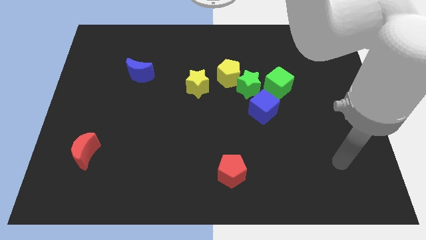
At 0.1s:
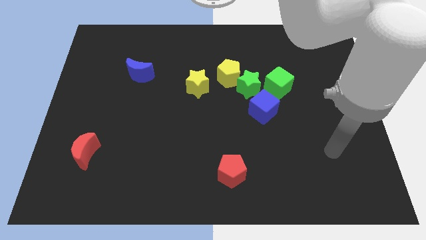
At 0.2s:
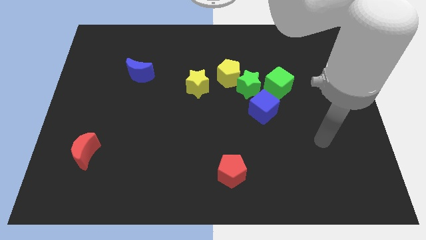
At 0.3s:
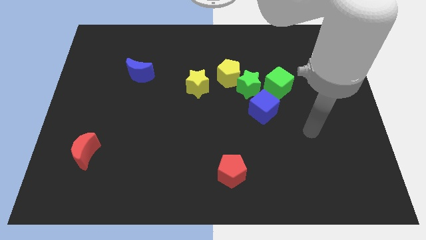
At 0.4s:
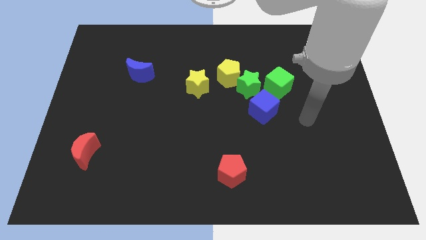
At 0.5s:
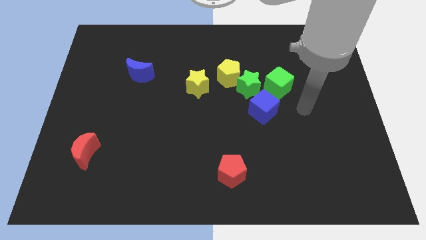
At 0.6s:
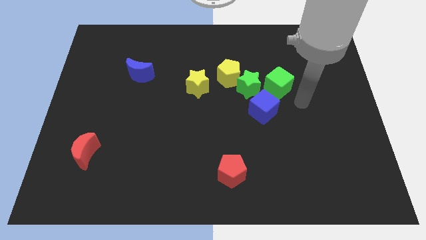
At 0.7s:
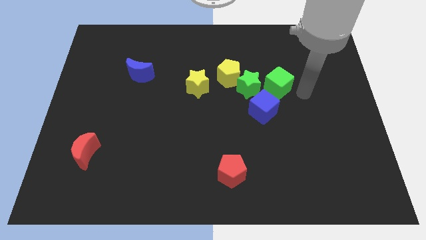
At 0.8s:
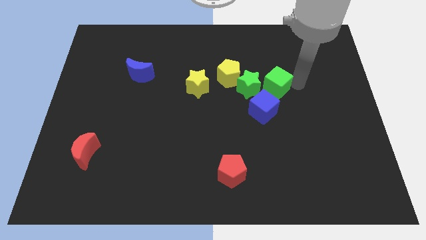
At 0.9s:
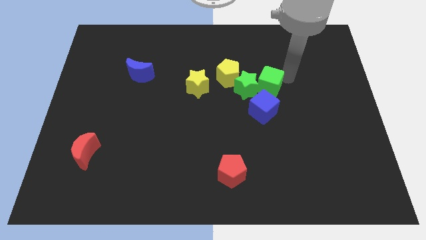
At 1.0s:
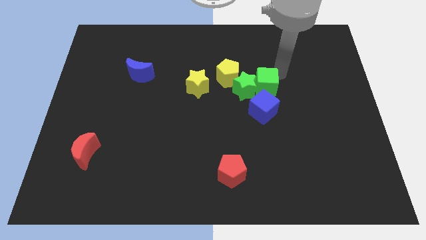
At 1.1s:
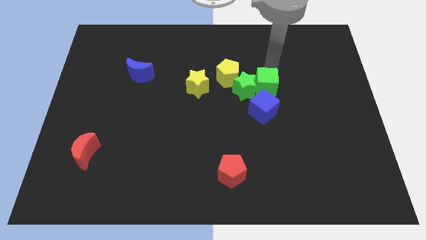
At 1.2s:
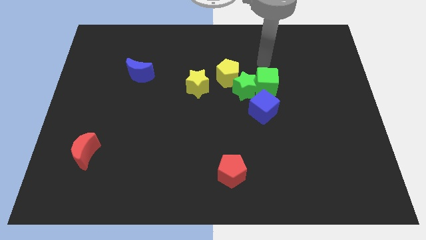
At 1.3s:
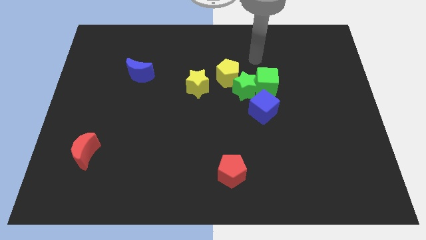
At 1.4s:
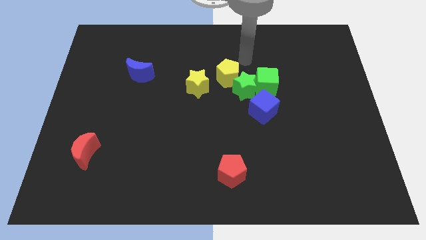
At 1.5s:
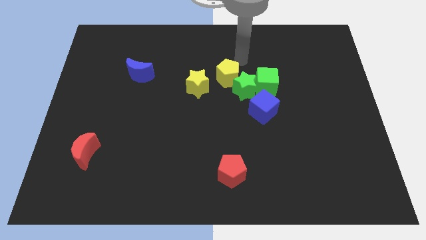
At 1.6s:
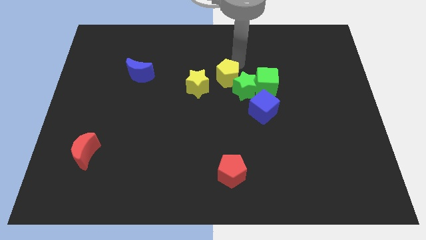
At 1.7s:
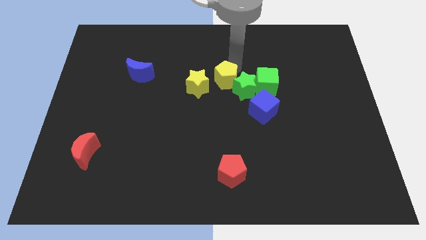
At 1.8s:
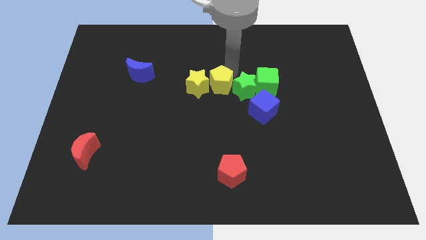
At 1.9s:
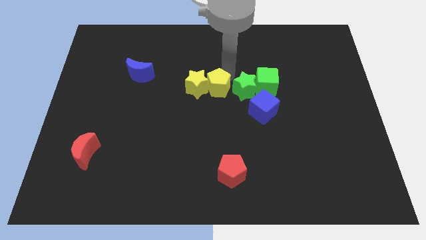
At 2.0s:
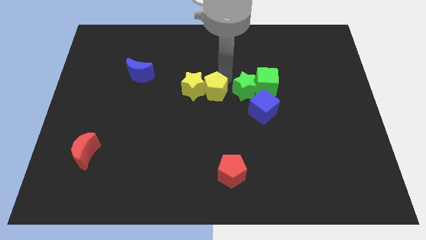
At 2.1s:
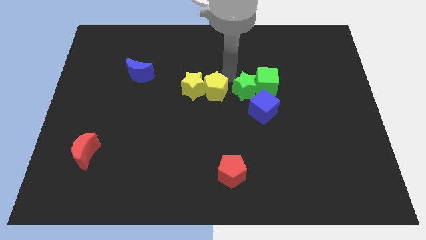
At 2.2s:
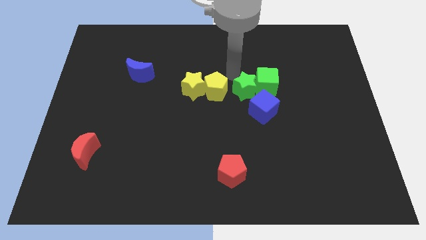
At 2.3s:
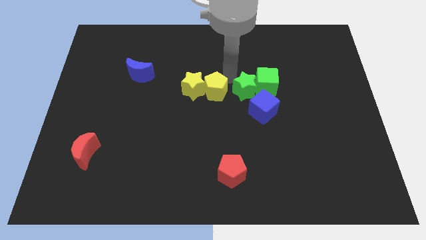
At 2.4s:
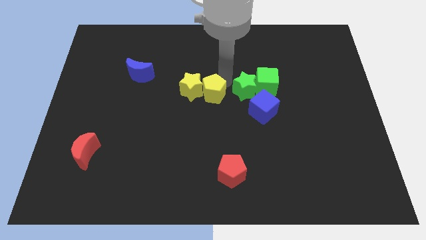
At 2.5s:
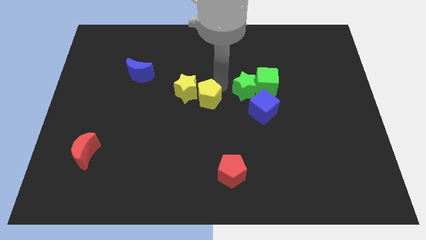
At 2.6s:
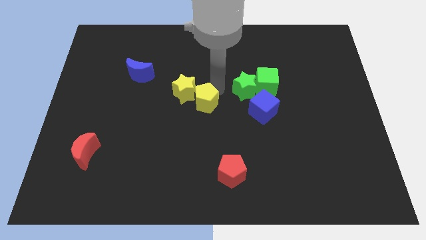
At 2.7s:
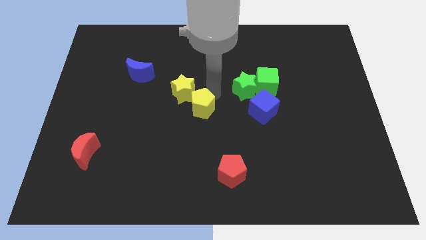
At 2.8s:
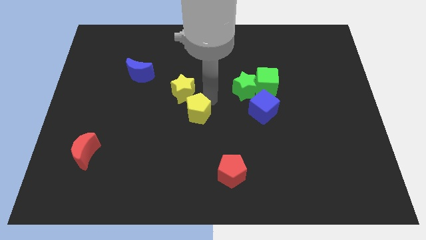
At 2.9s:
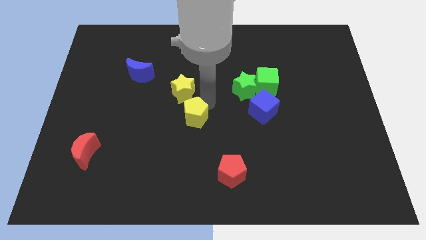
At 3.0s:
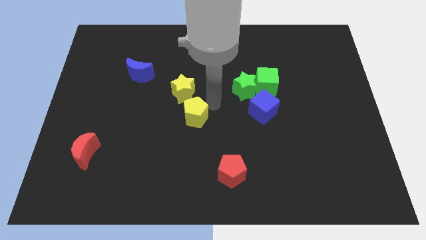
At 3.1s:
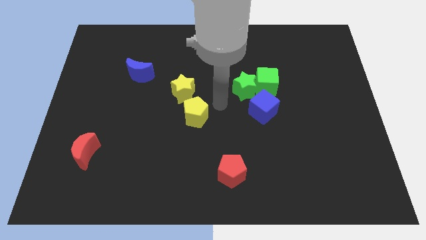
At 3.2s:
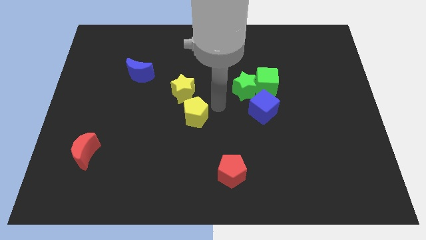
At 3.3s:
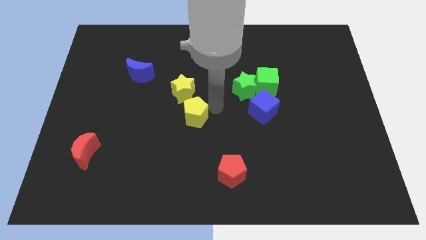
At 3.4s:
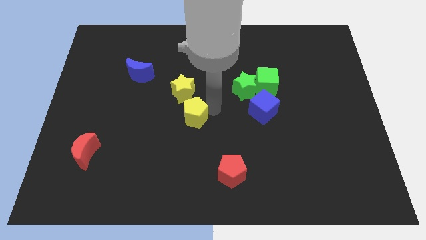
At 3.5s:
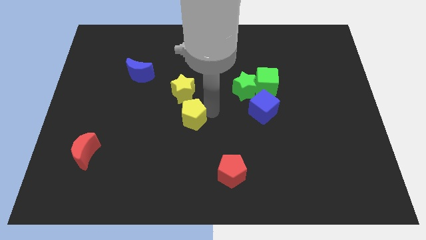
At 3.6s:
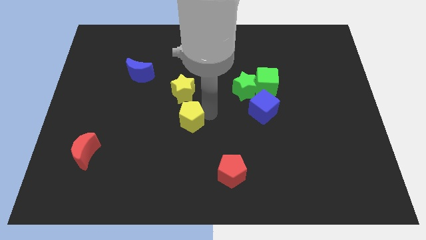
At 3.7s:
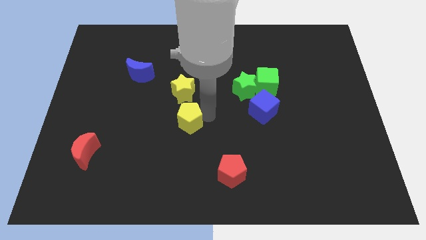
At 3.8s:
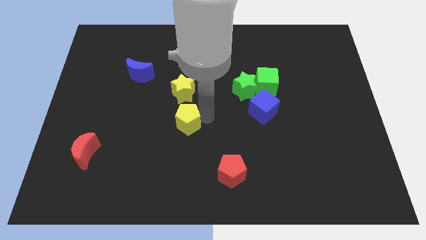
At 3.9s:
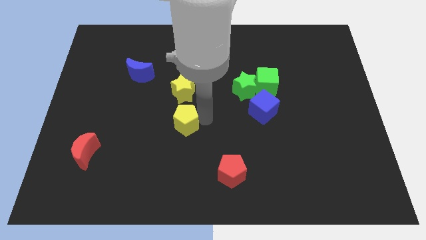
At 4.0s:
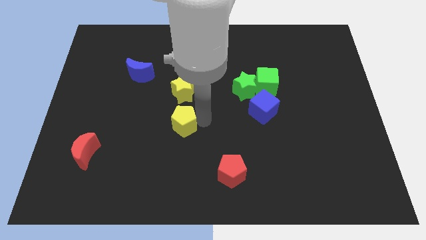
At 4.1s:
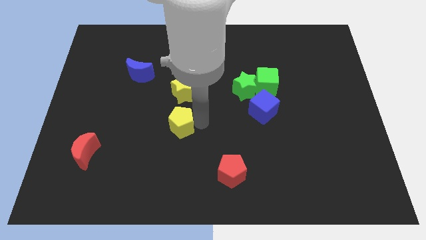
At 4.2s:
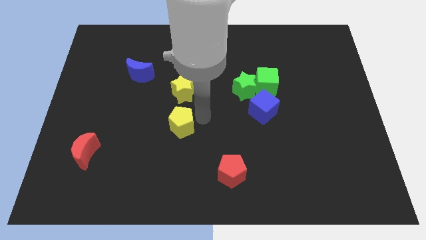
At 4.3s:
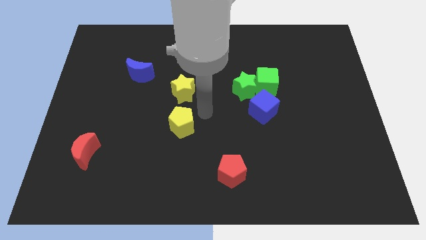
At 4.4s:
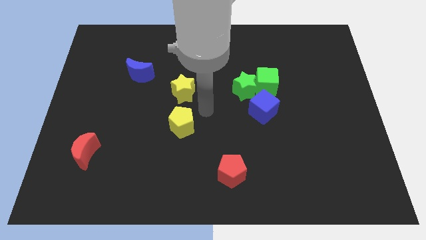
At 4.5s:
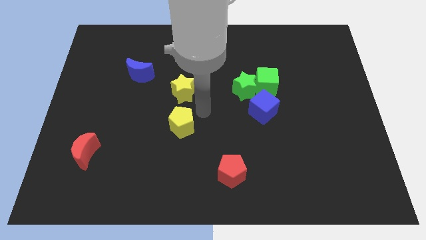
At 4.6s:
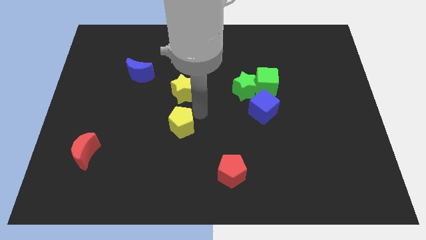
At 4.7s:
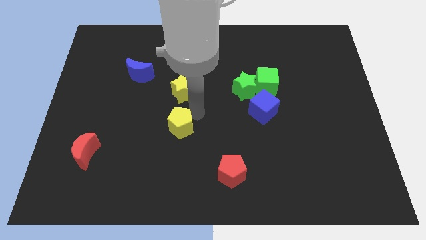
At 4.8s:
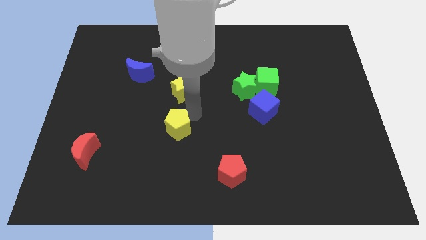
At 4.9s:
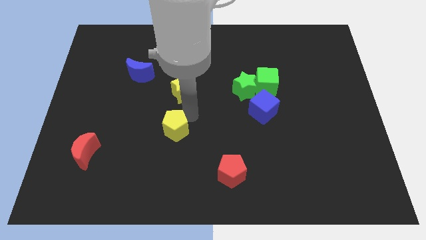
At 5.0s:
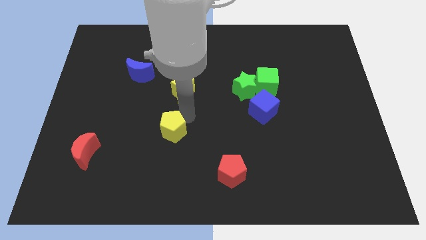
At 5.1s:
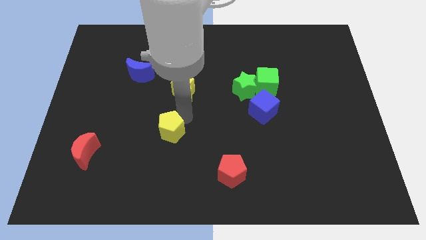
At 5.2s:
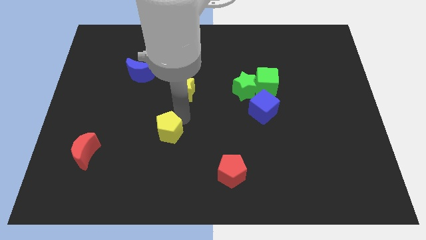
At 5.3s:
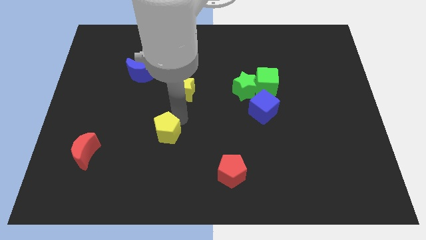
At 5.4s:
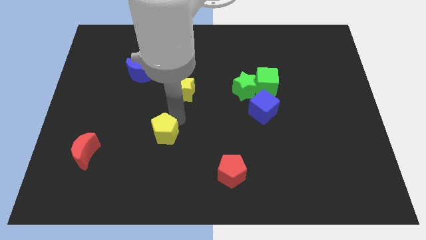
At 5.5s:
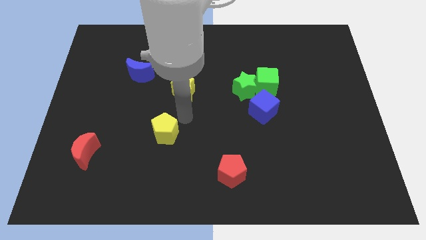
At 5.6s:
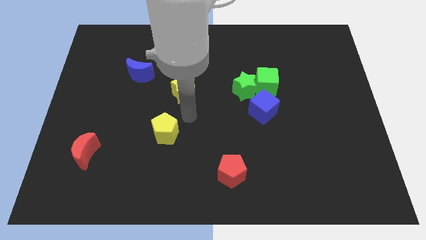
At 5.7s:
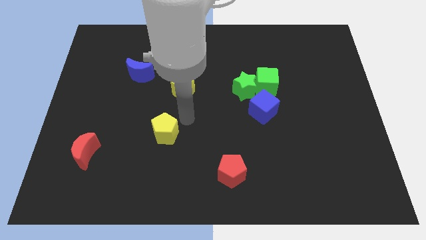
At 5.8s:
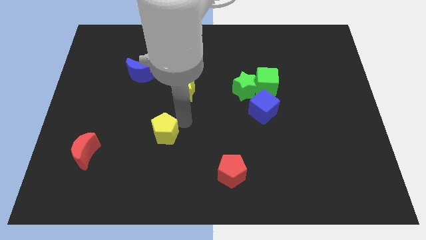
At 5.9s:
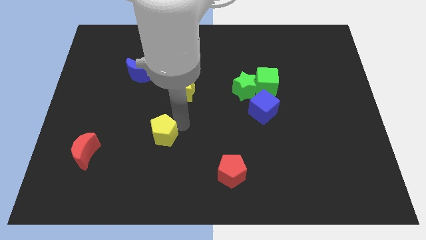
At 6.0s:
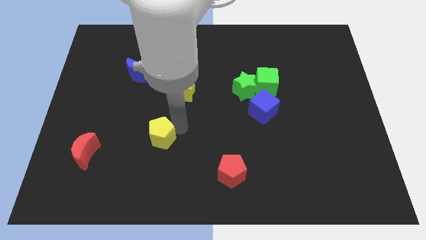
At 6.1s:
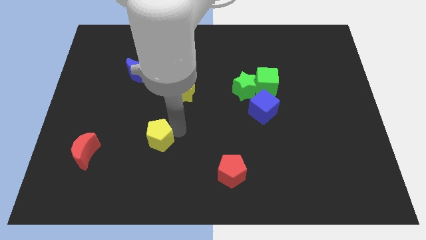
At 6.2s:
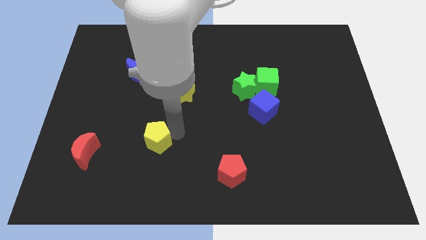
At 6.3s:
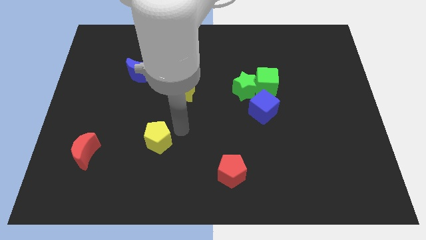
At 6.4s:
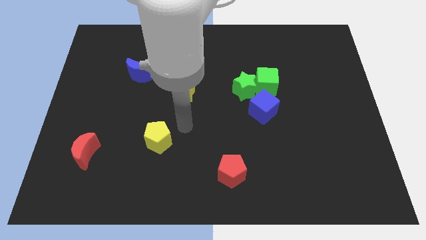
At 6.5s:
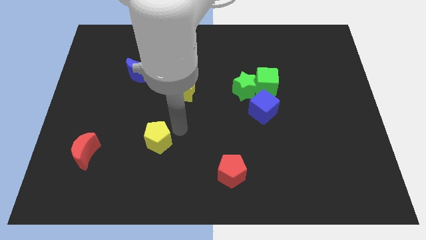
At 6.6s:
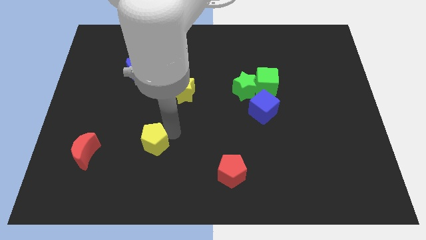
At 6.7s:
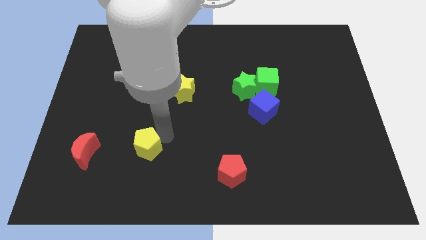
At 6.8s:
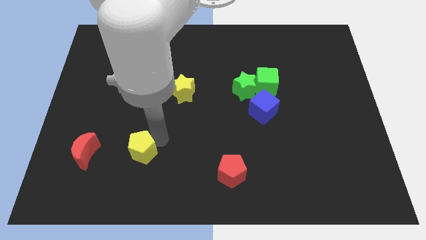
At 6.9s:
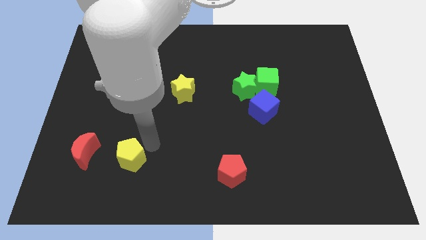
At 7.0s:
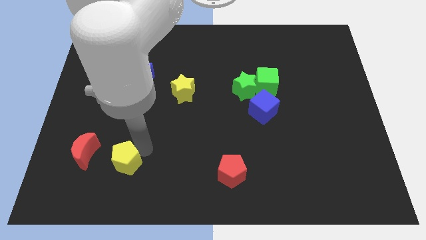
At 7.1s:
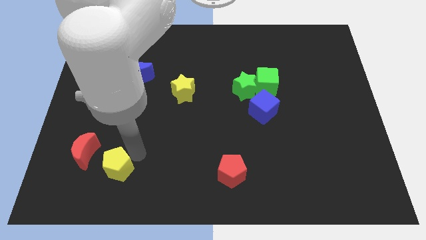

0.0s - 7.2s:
slide the yellow pentagon diagonally down and to the right of the red moon

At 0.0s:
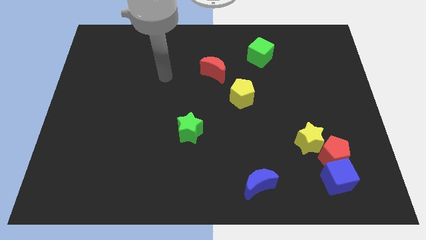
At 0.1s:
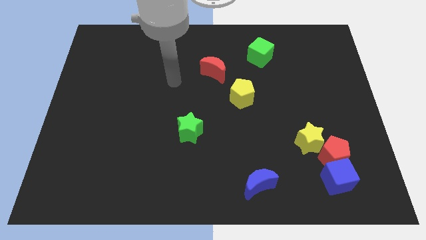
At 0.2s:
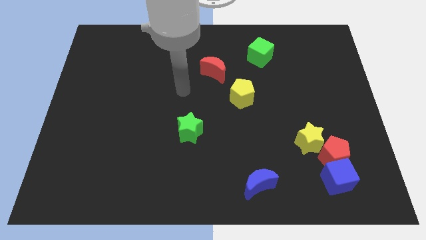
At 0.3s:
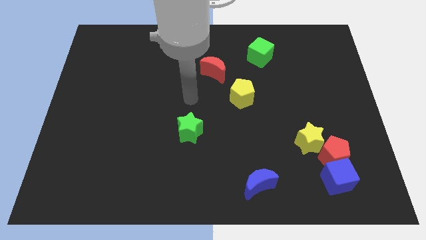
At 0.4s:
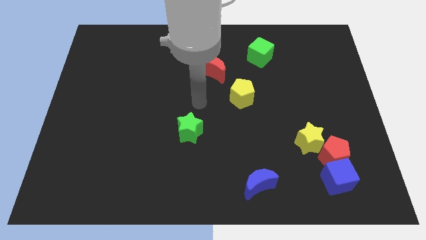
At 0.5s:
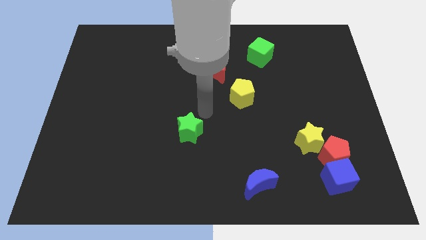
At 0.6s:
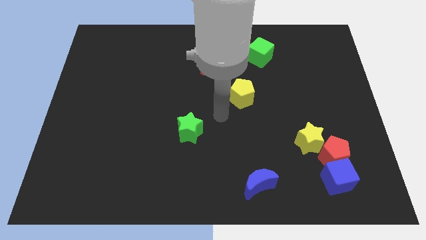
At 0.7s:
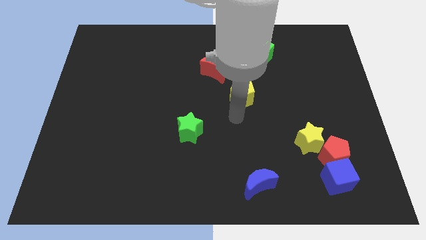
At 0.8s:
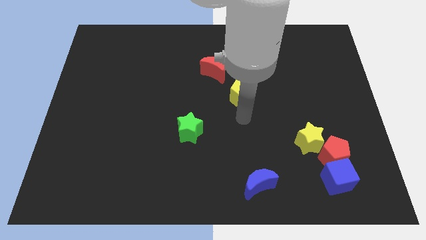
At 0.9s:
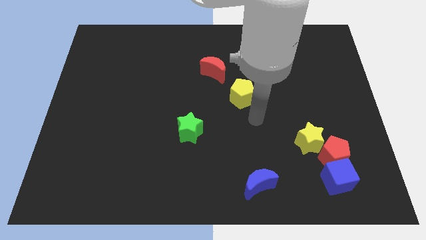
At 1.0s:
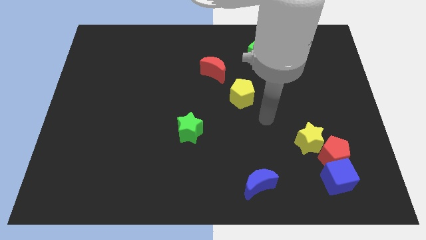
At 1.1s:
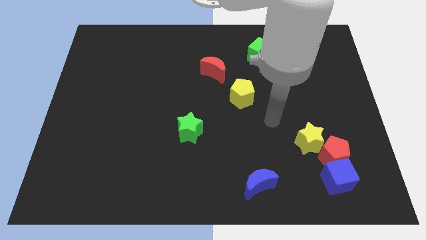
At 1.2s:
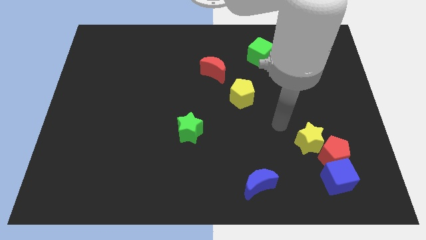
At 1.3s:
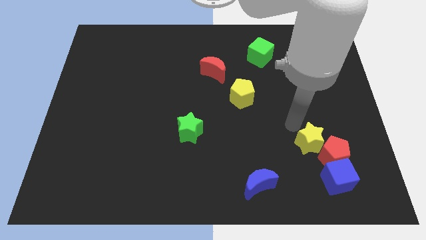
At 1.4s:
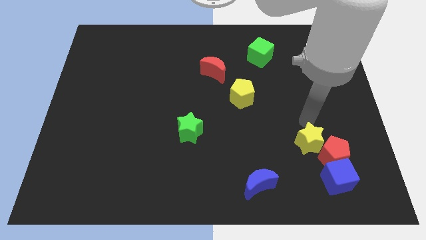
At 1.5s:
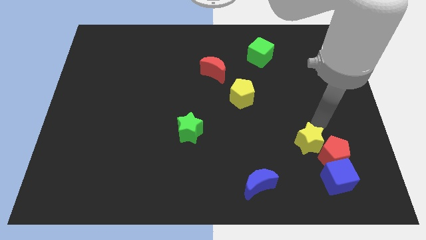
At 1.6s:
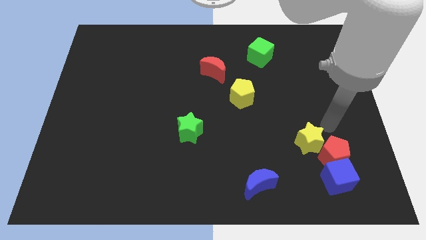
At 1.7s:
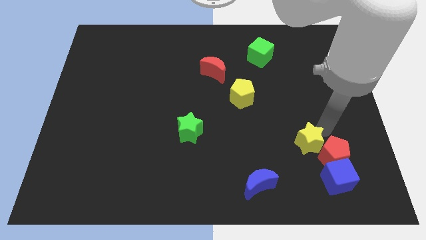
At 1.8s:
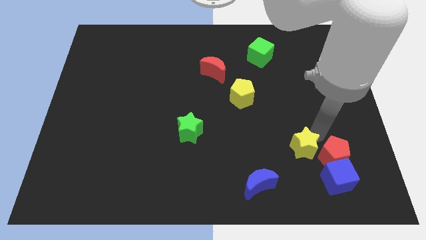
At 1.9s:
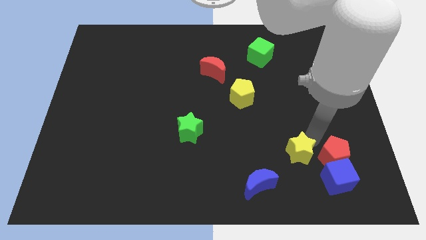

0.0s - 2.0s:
slide the yellow star to the top right of the blue moon
